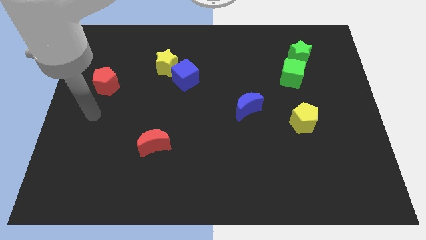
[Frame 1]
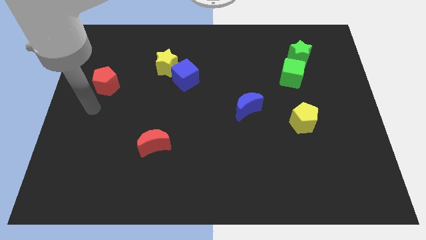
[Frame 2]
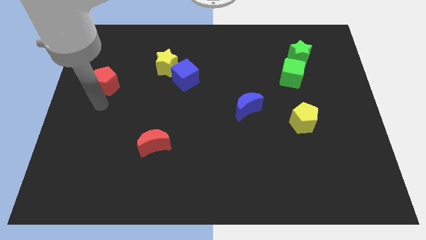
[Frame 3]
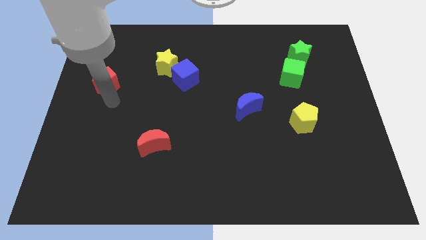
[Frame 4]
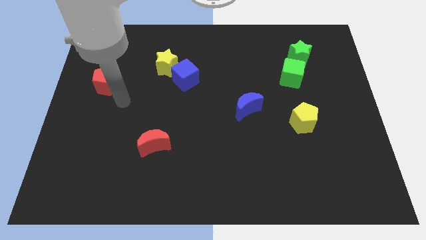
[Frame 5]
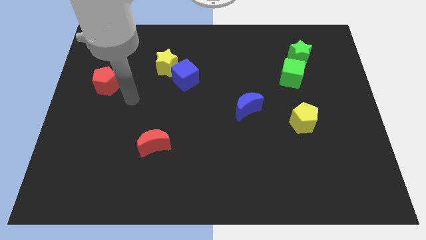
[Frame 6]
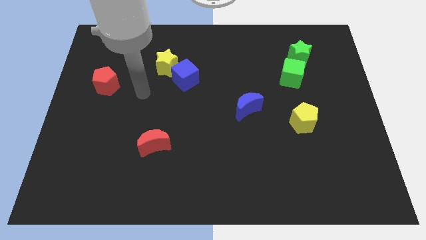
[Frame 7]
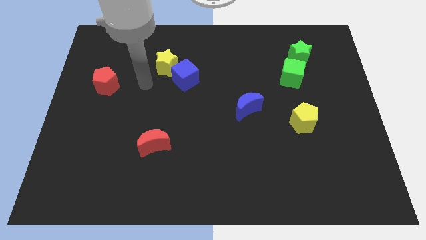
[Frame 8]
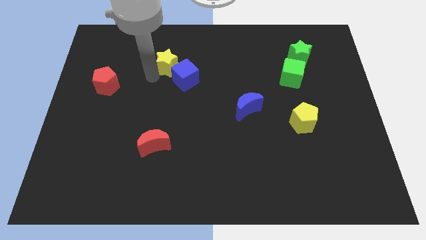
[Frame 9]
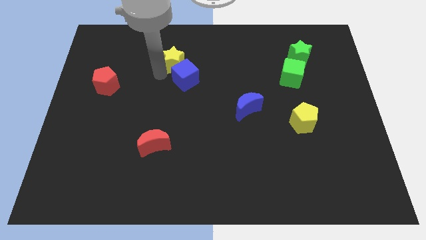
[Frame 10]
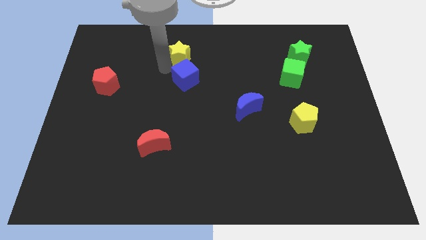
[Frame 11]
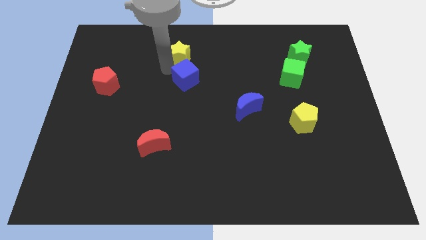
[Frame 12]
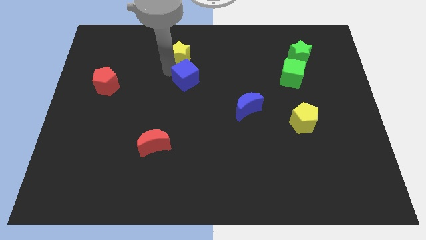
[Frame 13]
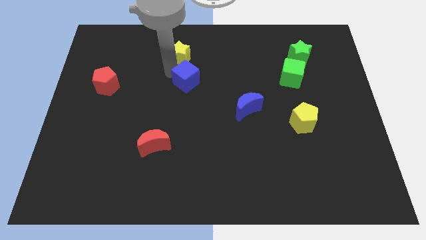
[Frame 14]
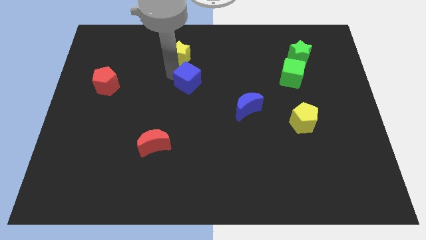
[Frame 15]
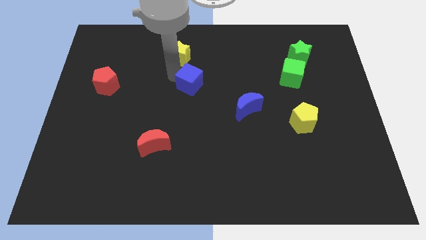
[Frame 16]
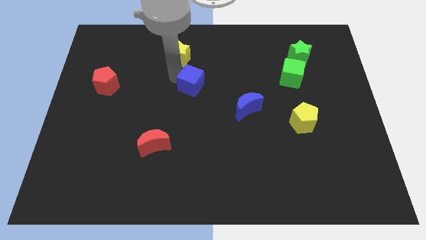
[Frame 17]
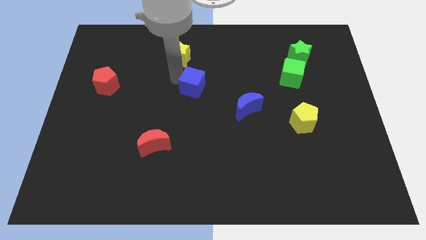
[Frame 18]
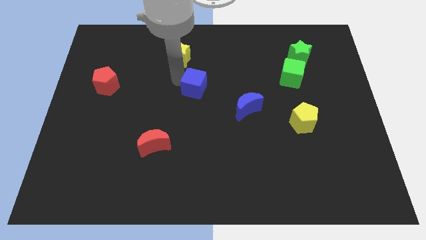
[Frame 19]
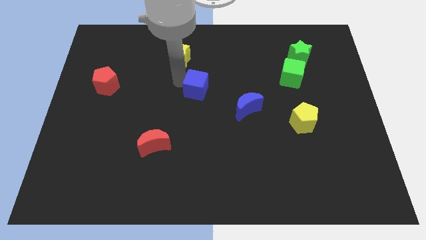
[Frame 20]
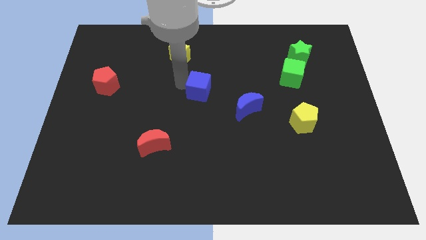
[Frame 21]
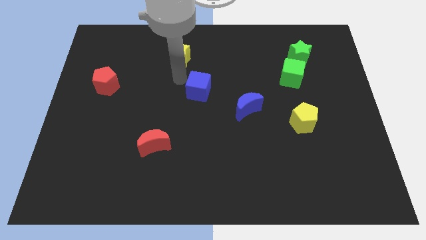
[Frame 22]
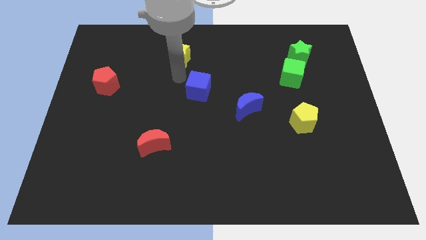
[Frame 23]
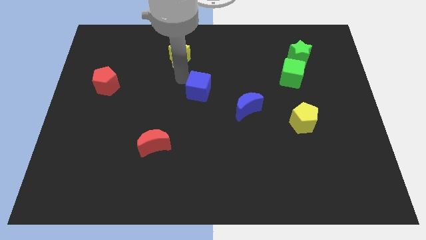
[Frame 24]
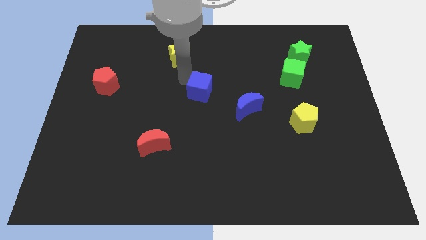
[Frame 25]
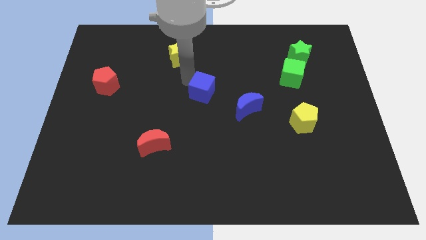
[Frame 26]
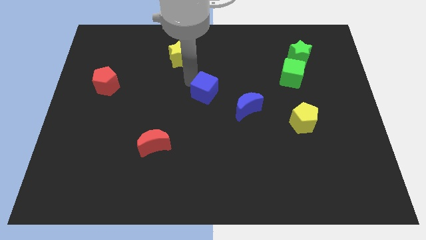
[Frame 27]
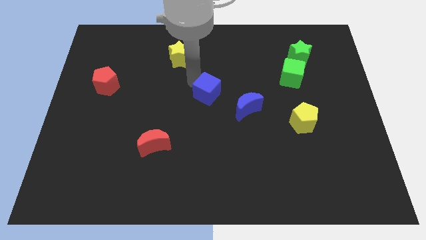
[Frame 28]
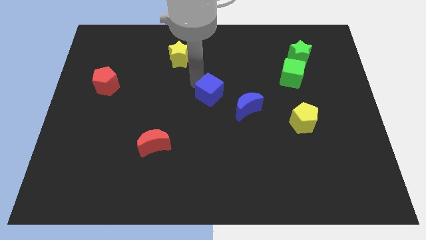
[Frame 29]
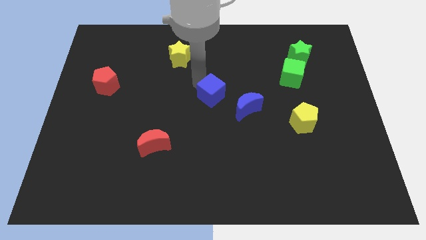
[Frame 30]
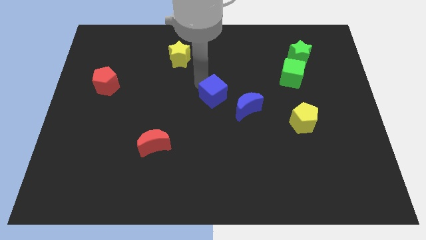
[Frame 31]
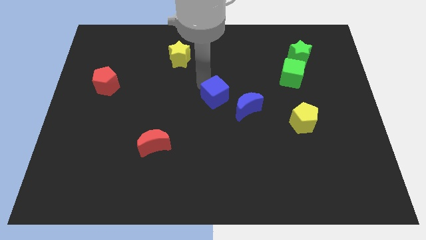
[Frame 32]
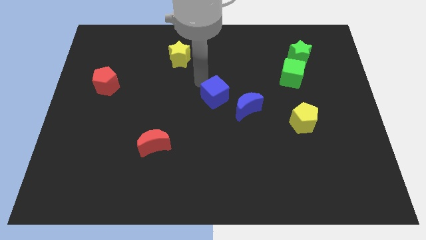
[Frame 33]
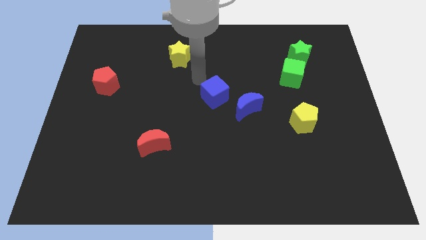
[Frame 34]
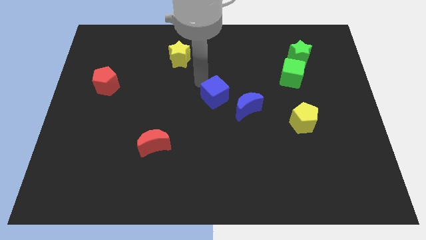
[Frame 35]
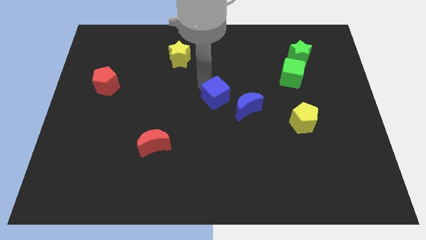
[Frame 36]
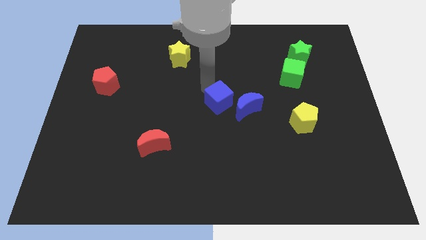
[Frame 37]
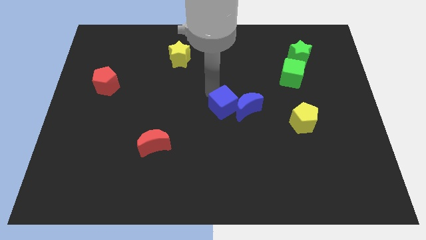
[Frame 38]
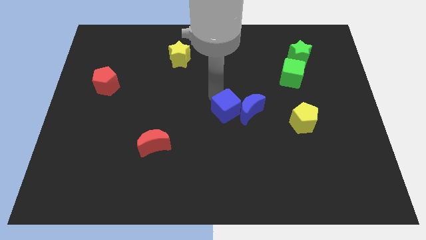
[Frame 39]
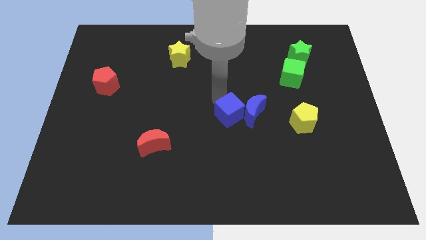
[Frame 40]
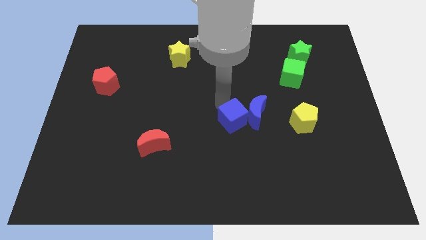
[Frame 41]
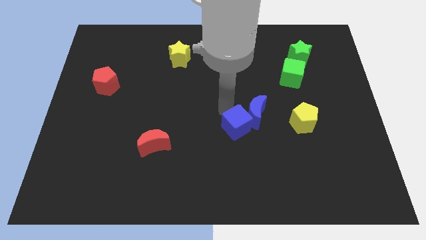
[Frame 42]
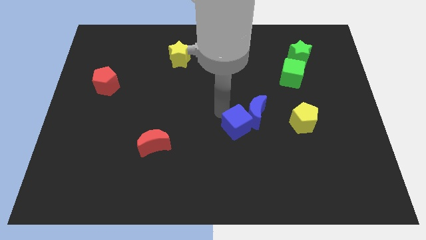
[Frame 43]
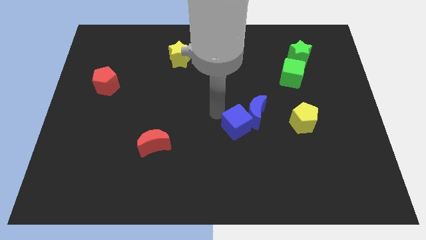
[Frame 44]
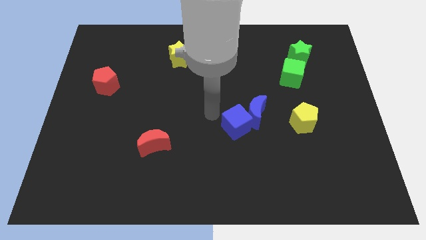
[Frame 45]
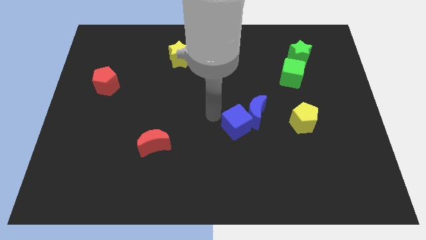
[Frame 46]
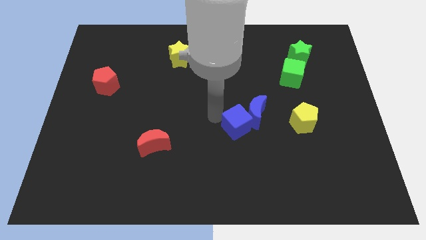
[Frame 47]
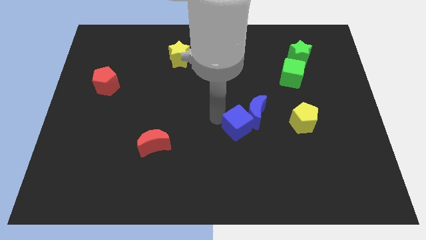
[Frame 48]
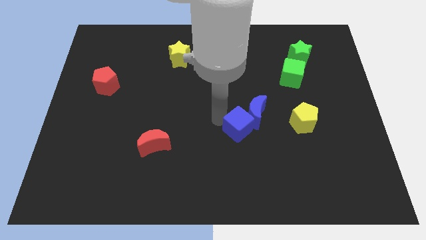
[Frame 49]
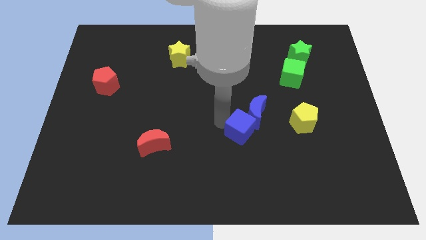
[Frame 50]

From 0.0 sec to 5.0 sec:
slide the blue cube downwards and then to the right

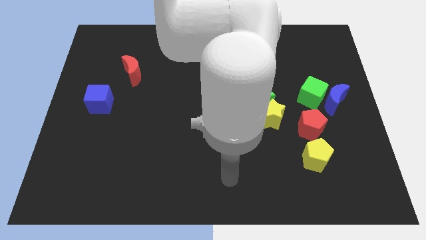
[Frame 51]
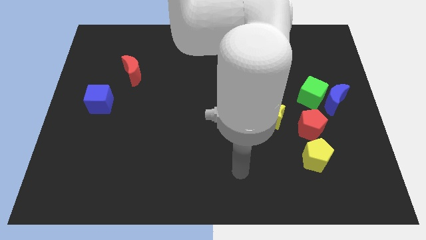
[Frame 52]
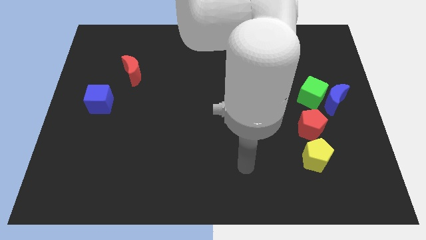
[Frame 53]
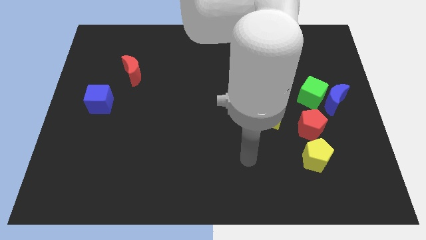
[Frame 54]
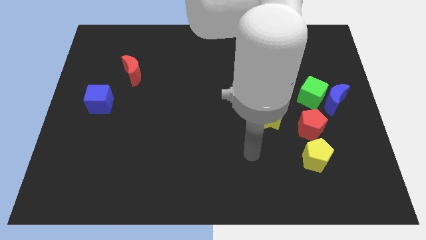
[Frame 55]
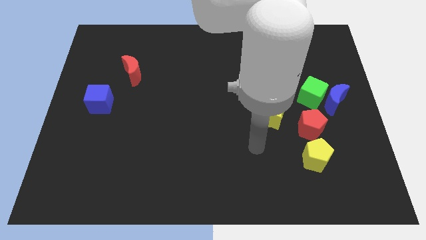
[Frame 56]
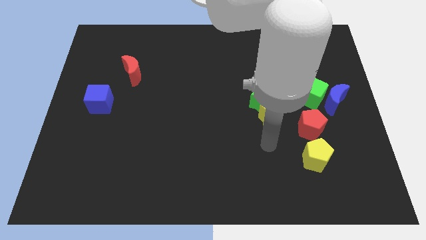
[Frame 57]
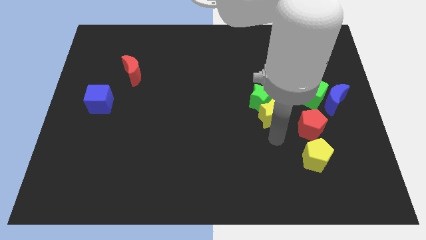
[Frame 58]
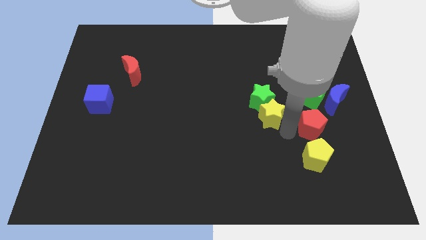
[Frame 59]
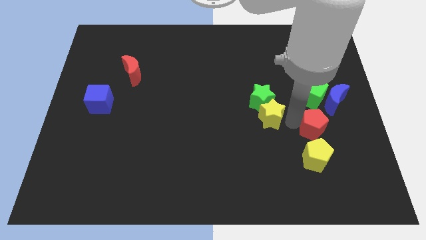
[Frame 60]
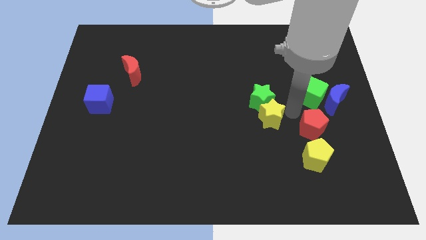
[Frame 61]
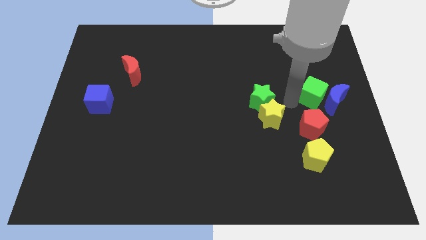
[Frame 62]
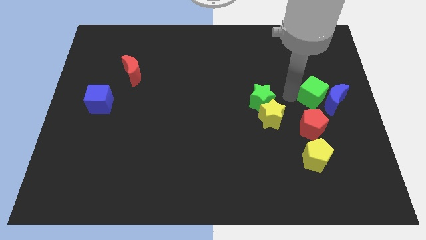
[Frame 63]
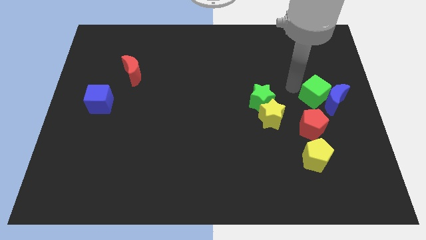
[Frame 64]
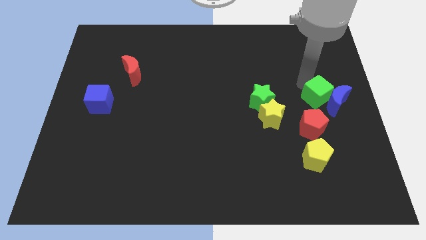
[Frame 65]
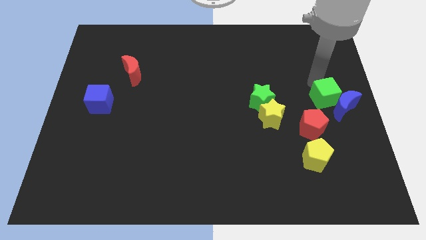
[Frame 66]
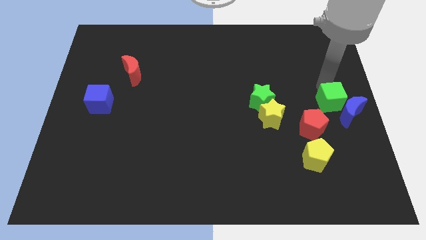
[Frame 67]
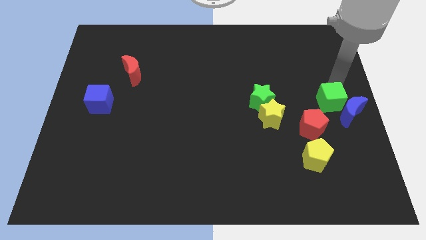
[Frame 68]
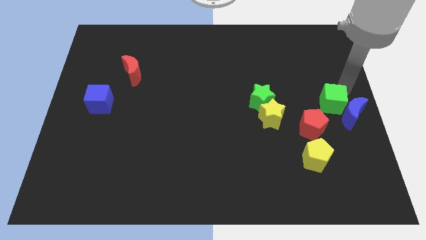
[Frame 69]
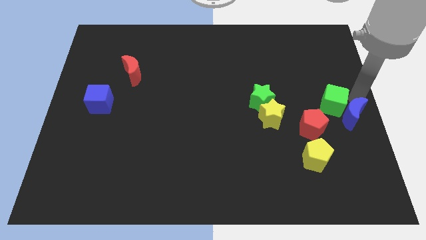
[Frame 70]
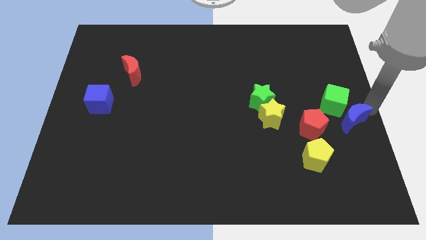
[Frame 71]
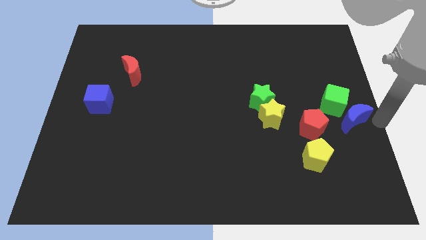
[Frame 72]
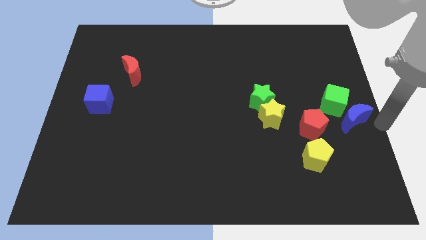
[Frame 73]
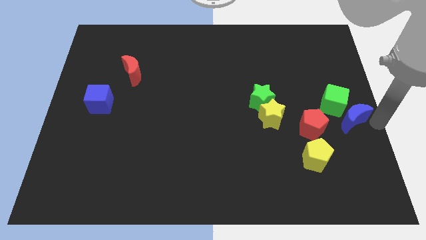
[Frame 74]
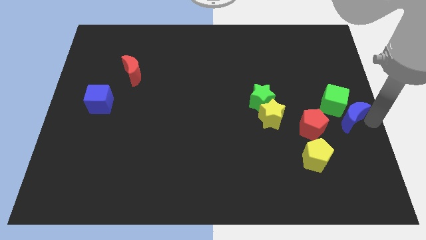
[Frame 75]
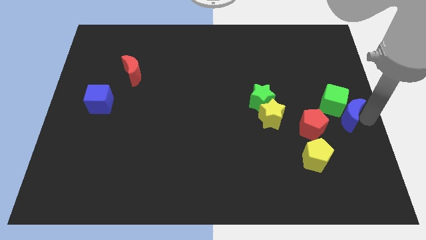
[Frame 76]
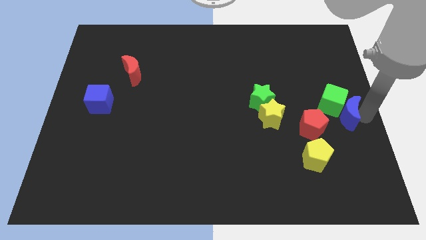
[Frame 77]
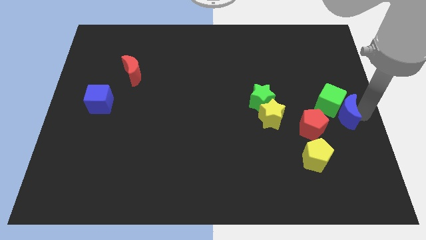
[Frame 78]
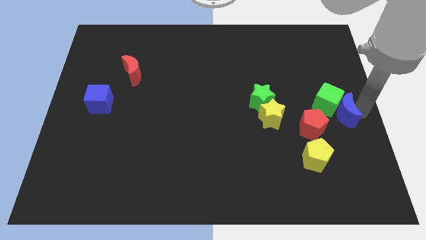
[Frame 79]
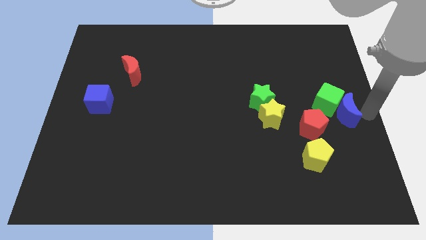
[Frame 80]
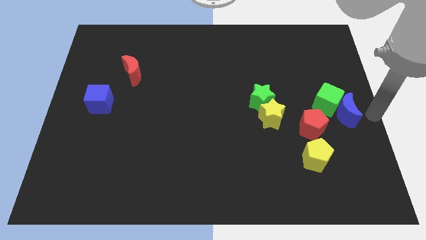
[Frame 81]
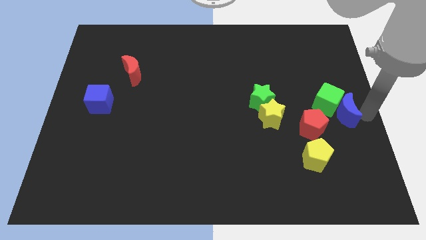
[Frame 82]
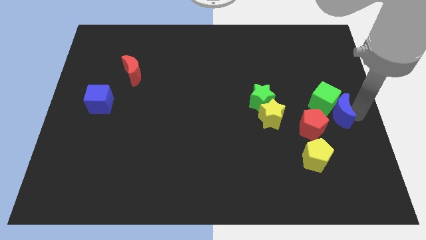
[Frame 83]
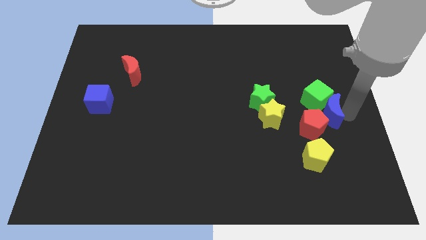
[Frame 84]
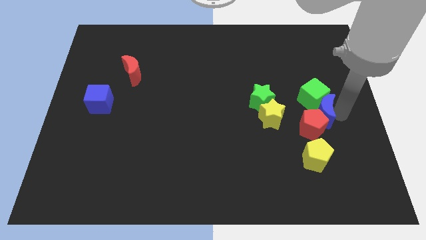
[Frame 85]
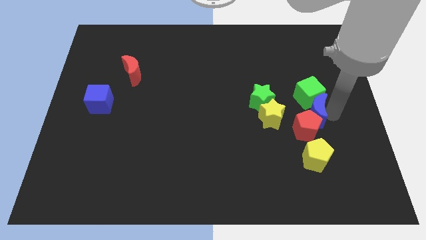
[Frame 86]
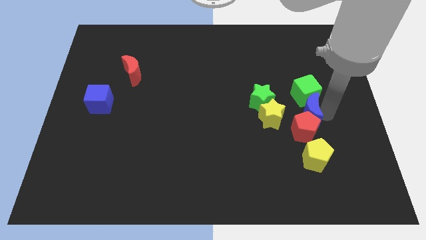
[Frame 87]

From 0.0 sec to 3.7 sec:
push the blue moon a little bit diagonally downwards and left
